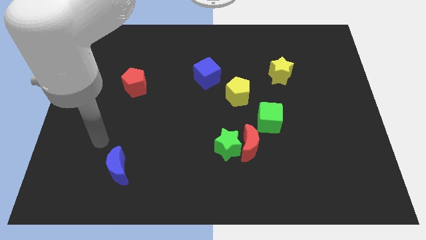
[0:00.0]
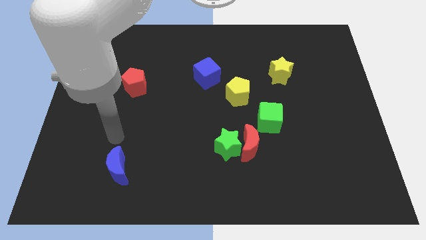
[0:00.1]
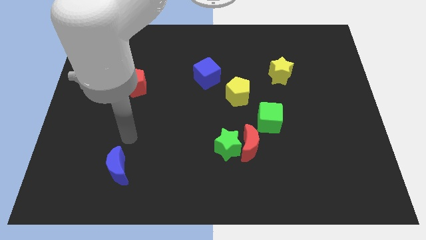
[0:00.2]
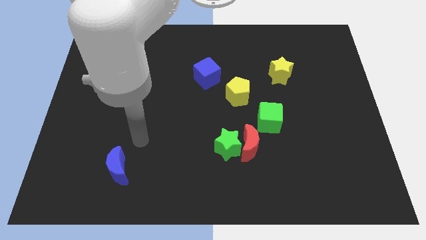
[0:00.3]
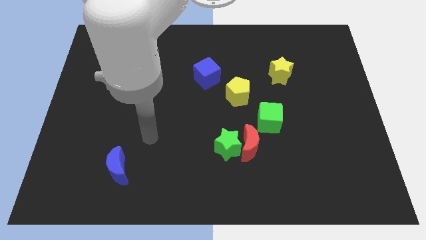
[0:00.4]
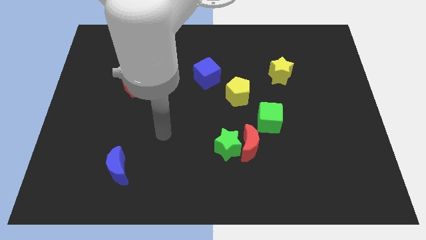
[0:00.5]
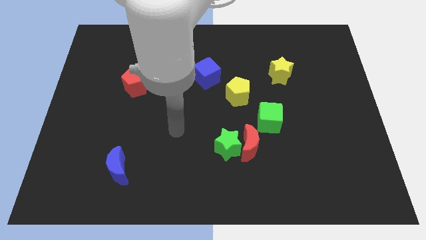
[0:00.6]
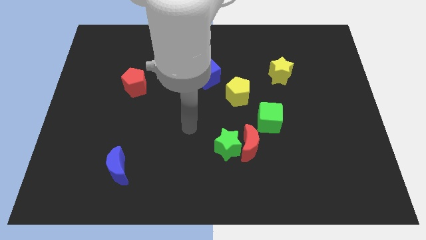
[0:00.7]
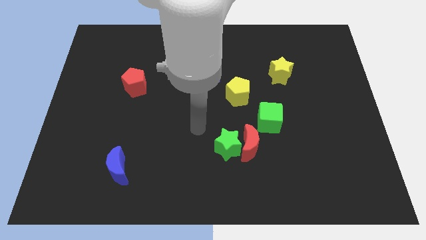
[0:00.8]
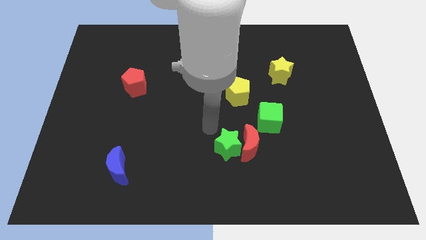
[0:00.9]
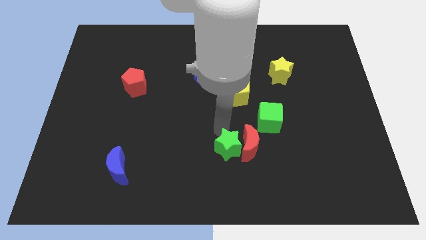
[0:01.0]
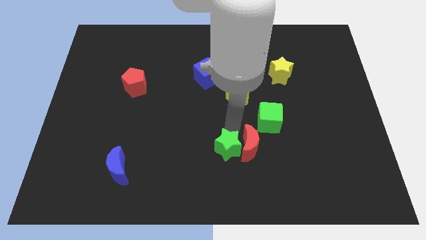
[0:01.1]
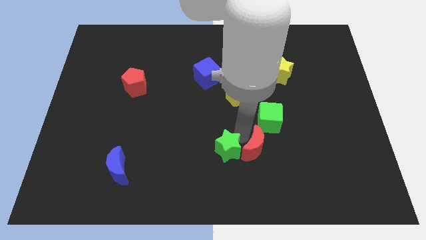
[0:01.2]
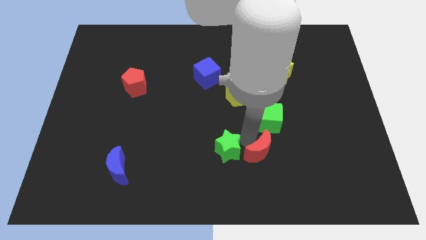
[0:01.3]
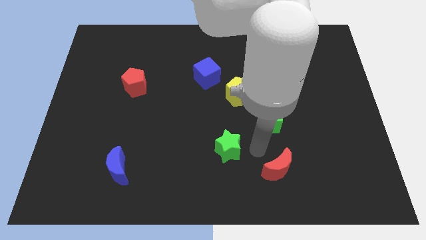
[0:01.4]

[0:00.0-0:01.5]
pull the green star apart from the red moon

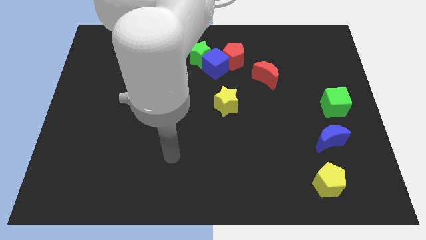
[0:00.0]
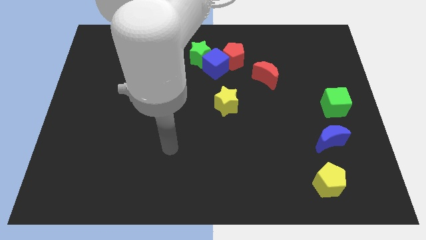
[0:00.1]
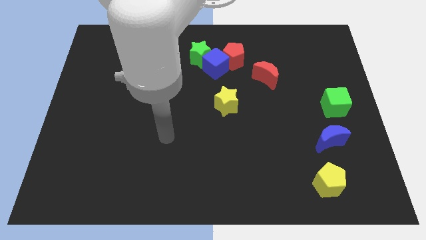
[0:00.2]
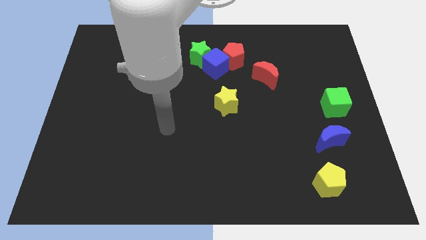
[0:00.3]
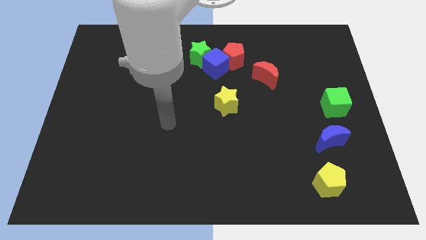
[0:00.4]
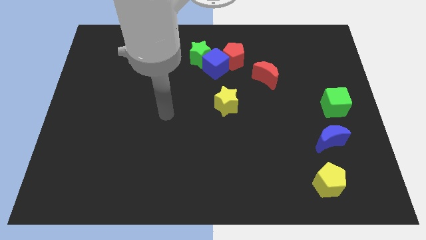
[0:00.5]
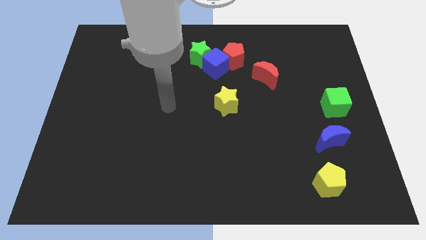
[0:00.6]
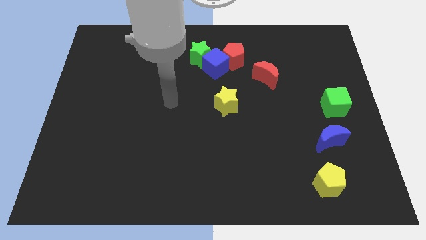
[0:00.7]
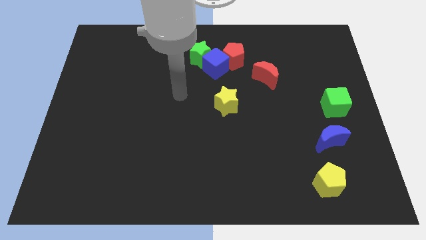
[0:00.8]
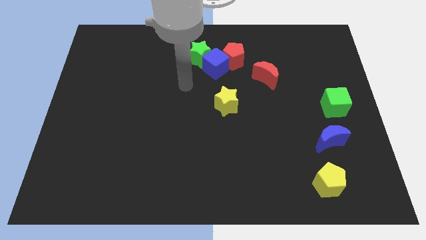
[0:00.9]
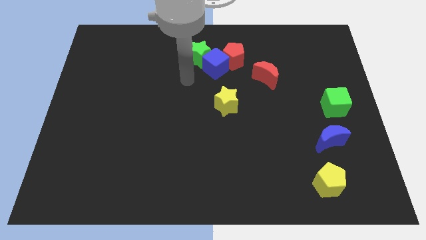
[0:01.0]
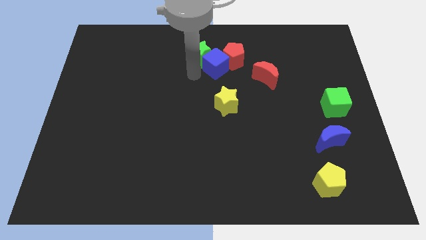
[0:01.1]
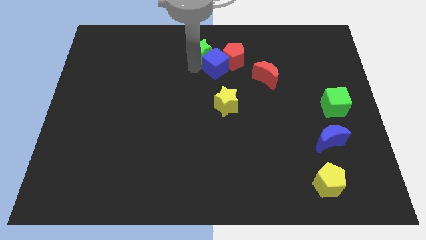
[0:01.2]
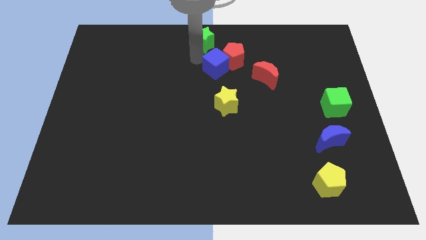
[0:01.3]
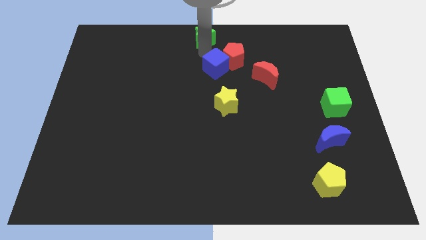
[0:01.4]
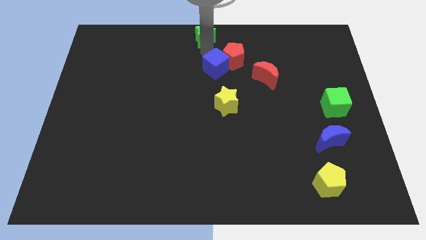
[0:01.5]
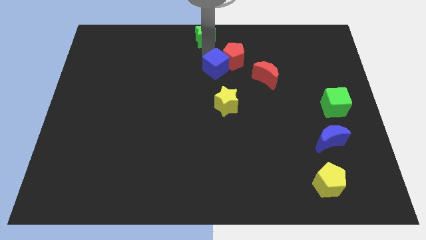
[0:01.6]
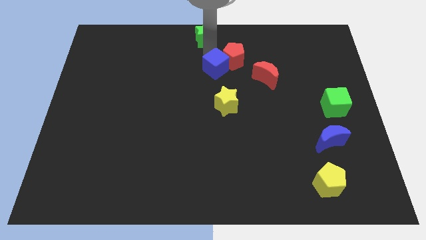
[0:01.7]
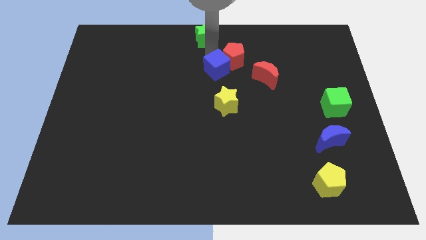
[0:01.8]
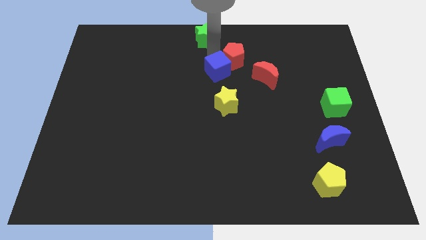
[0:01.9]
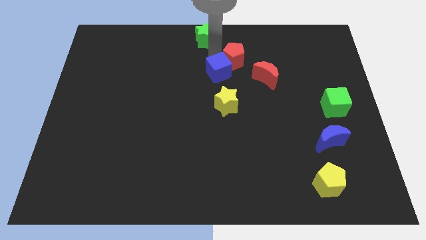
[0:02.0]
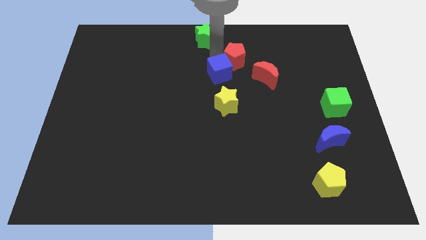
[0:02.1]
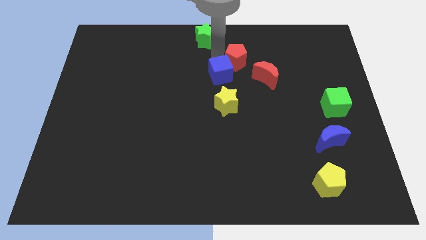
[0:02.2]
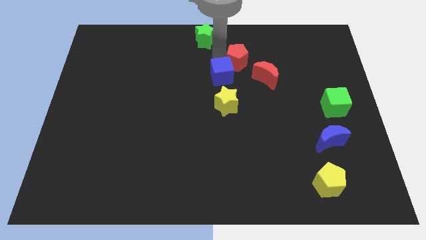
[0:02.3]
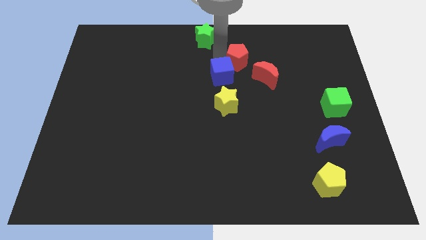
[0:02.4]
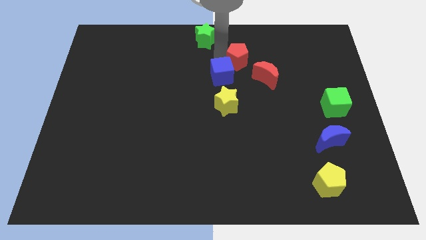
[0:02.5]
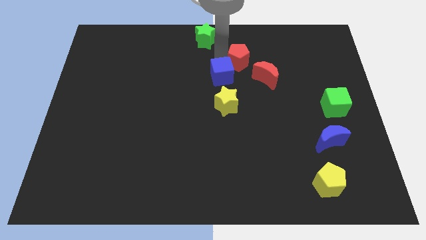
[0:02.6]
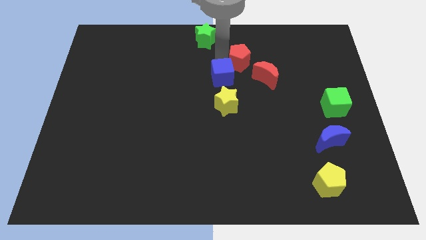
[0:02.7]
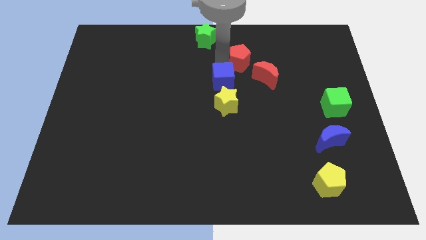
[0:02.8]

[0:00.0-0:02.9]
separate the blue cube from the red pentagon and green star

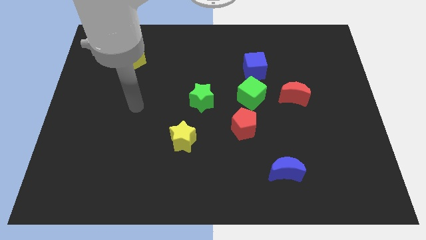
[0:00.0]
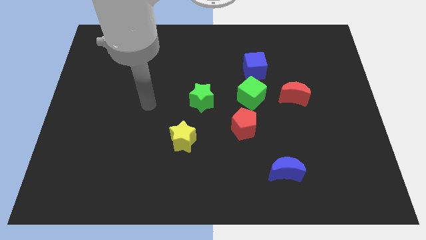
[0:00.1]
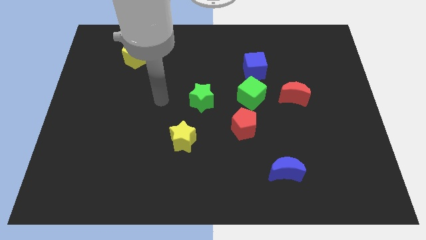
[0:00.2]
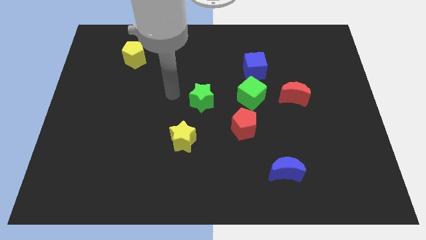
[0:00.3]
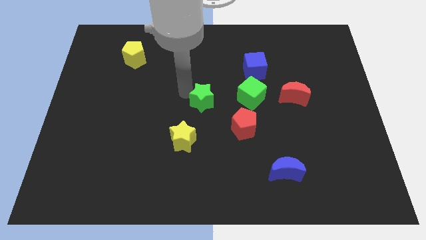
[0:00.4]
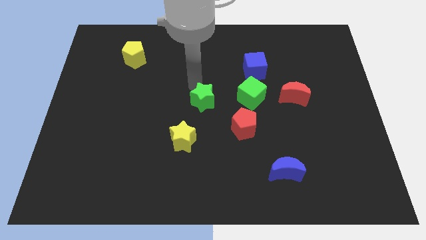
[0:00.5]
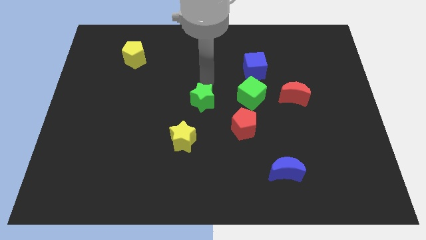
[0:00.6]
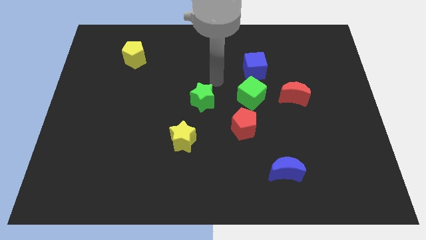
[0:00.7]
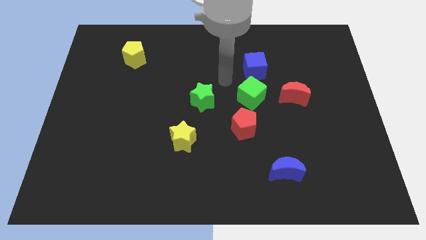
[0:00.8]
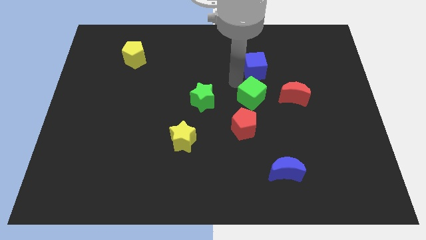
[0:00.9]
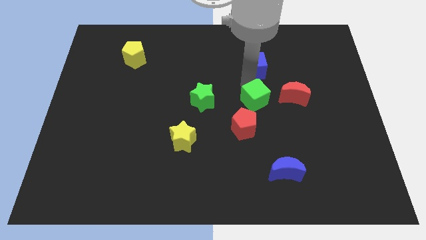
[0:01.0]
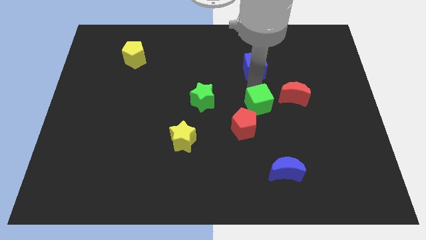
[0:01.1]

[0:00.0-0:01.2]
move the blue cube away from the green cube

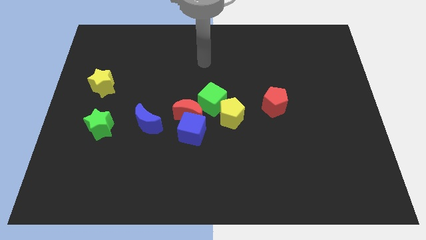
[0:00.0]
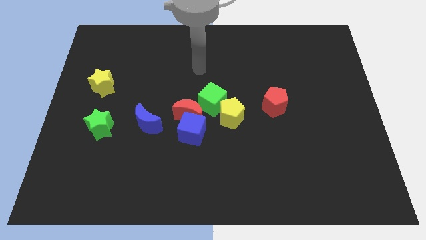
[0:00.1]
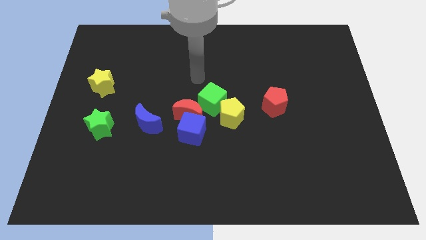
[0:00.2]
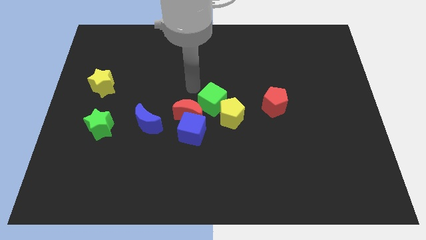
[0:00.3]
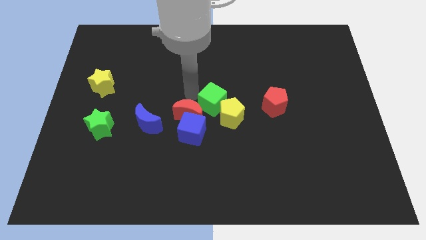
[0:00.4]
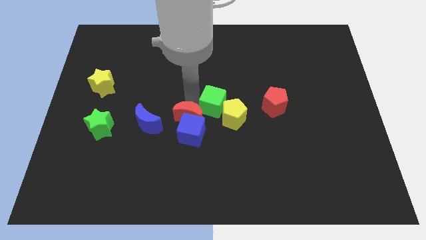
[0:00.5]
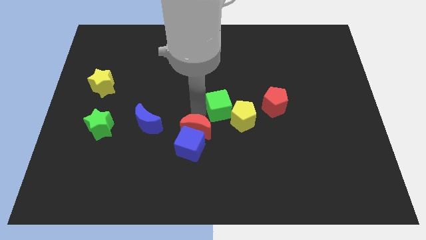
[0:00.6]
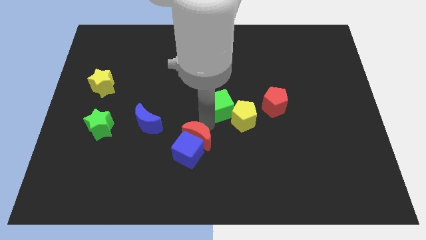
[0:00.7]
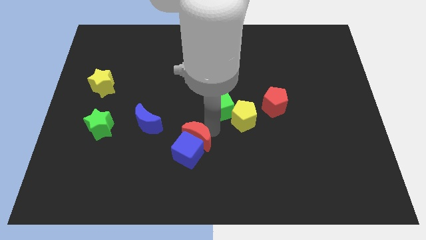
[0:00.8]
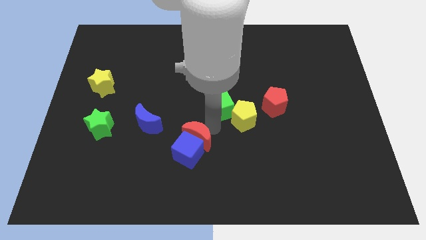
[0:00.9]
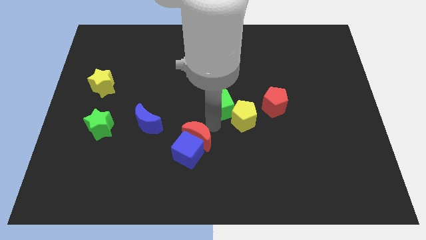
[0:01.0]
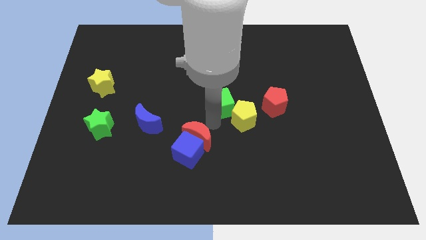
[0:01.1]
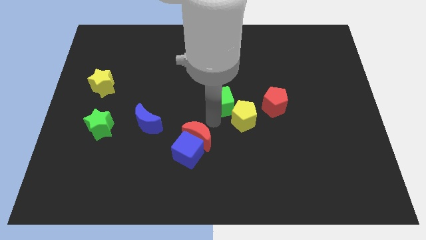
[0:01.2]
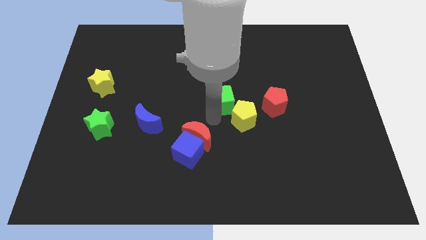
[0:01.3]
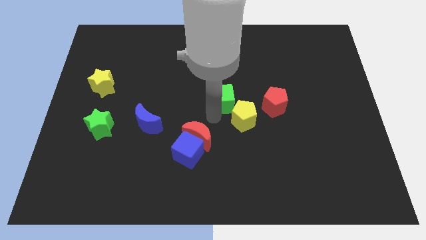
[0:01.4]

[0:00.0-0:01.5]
separate the green cube from the group

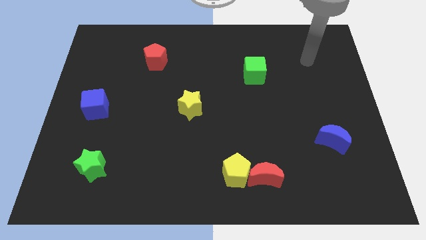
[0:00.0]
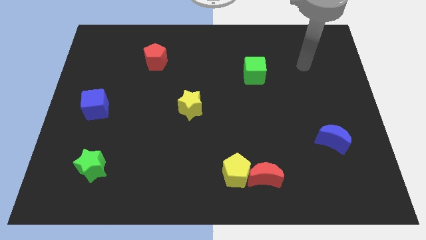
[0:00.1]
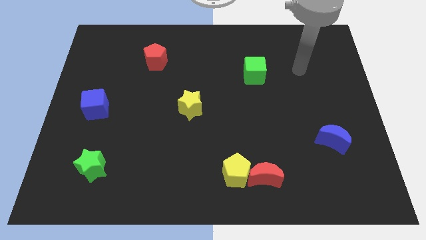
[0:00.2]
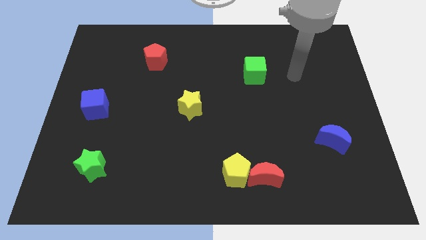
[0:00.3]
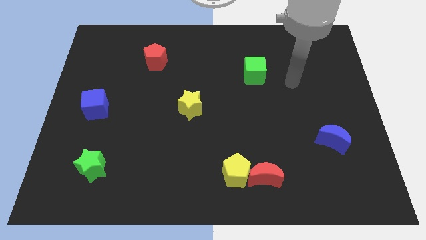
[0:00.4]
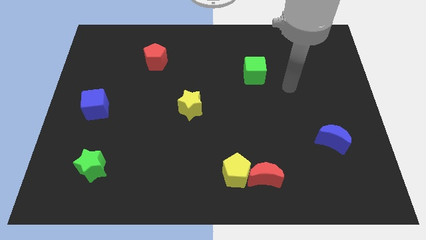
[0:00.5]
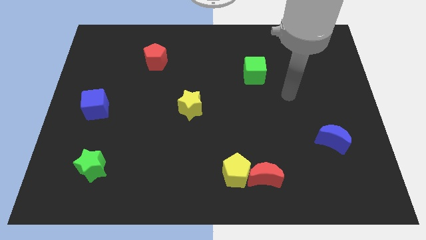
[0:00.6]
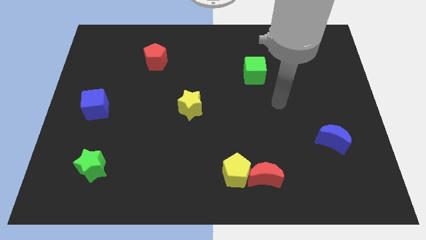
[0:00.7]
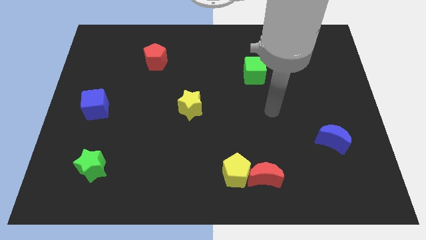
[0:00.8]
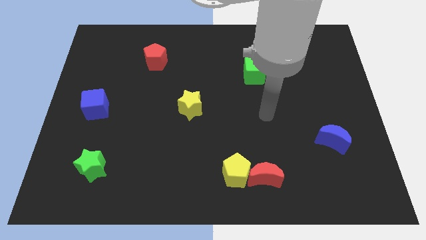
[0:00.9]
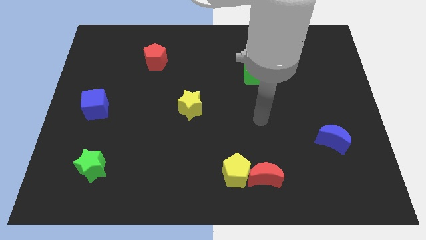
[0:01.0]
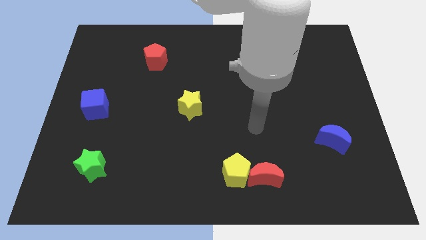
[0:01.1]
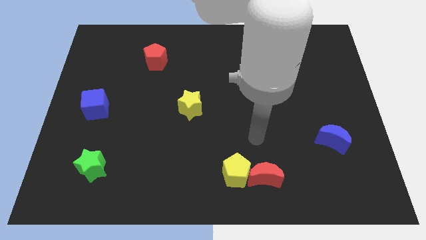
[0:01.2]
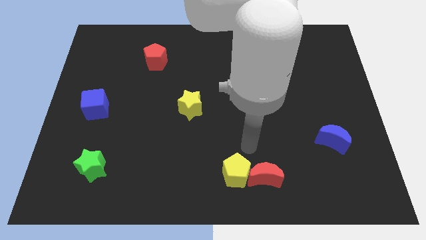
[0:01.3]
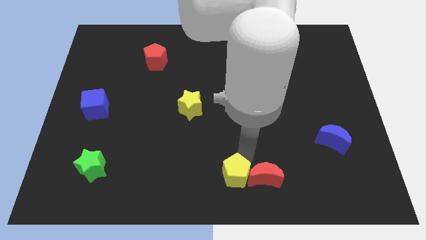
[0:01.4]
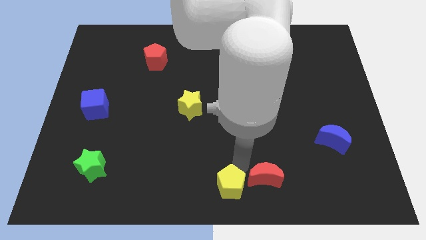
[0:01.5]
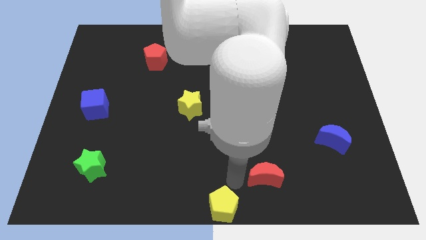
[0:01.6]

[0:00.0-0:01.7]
move the red moon away from the yellow pentagon

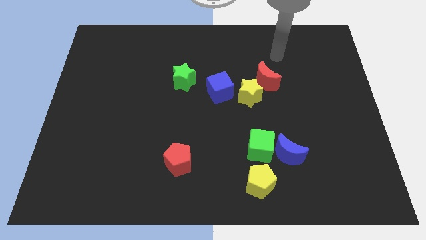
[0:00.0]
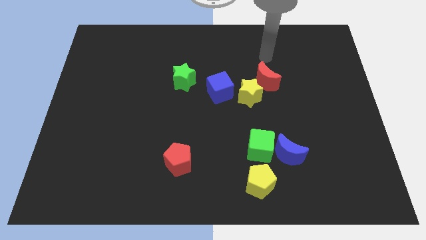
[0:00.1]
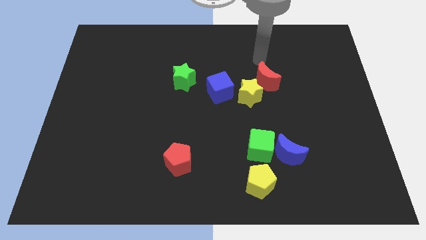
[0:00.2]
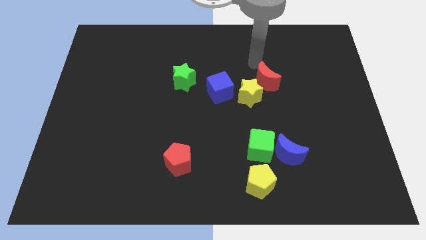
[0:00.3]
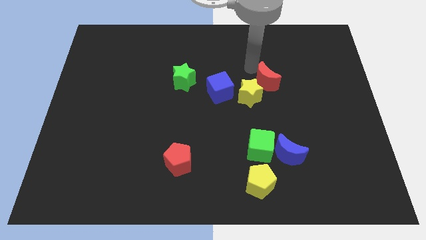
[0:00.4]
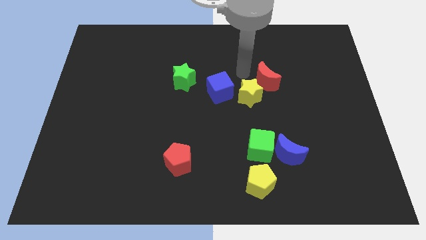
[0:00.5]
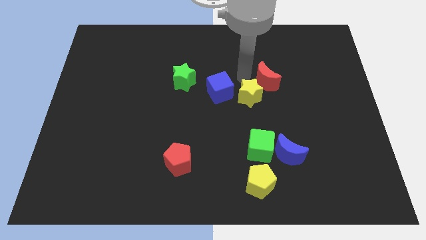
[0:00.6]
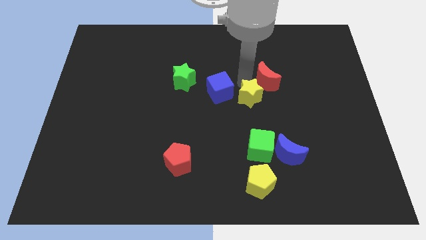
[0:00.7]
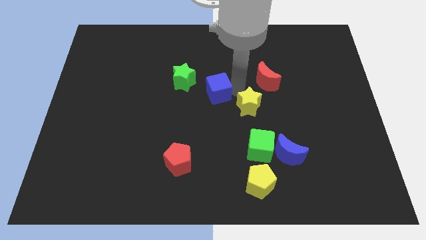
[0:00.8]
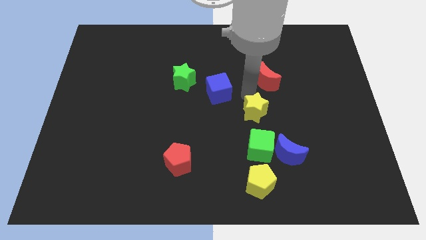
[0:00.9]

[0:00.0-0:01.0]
pull the red moon apart from the yellow star